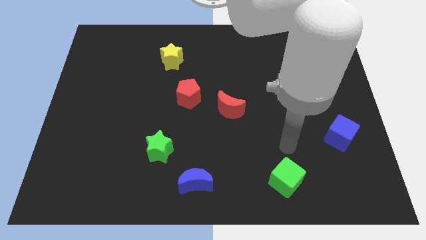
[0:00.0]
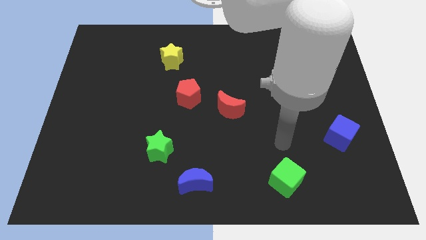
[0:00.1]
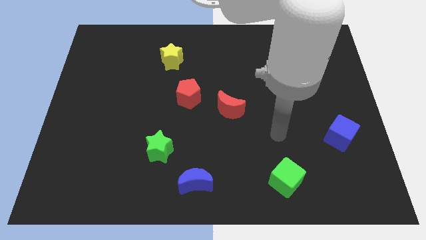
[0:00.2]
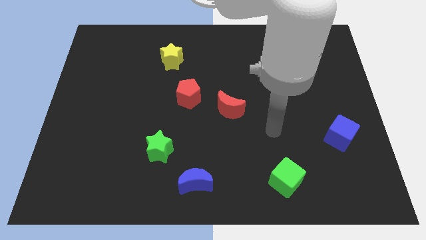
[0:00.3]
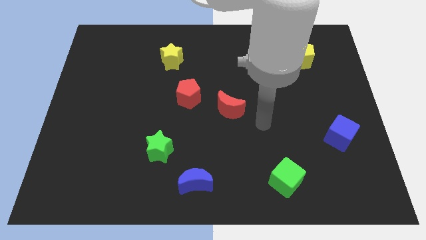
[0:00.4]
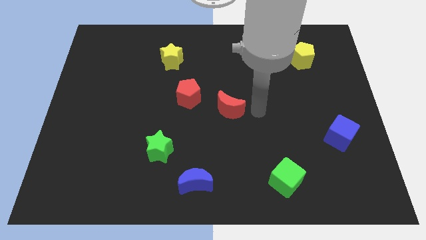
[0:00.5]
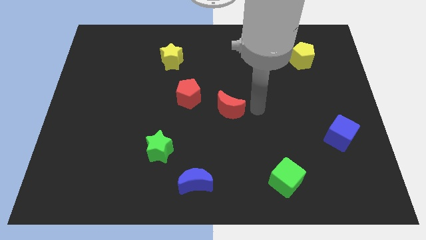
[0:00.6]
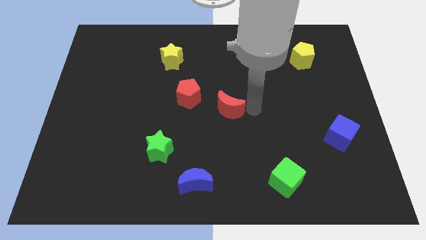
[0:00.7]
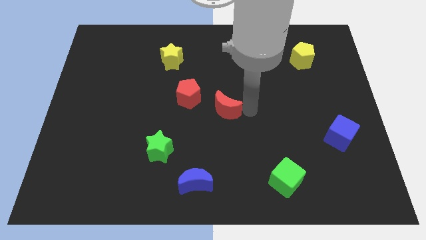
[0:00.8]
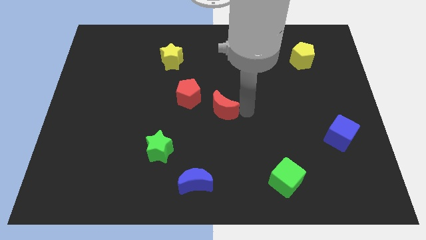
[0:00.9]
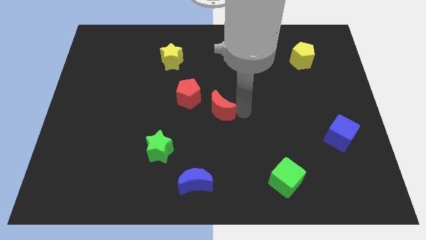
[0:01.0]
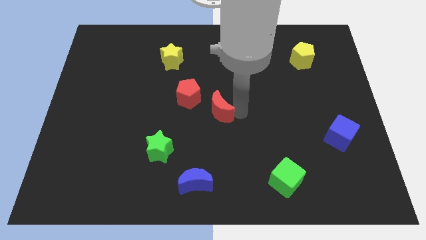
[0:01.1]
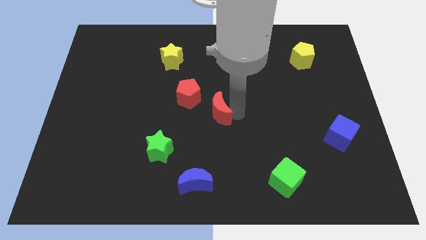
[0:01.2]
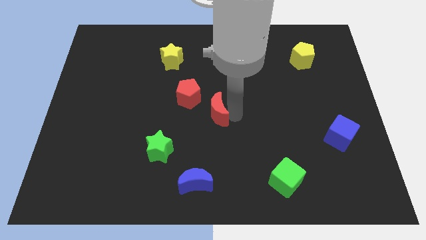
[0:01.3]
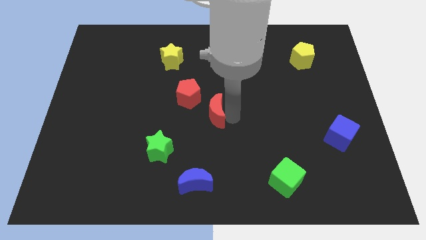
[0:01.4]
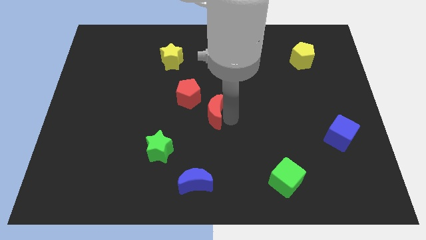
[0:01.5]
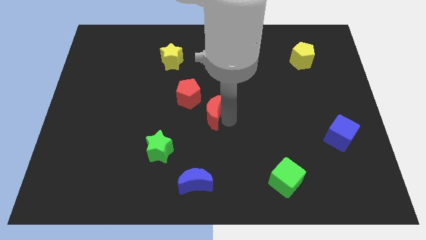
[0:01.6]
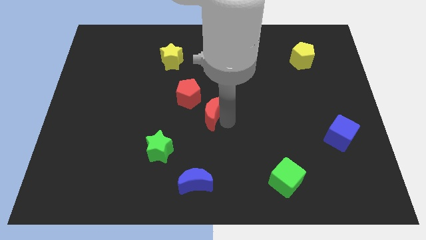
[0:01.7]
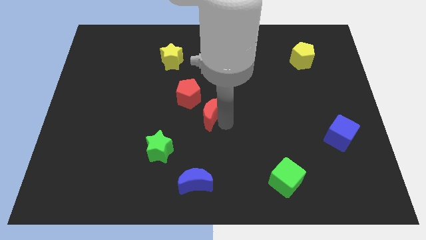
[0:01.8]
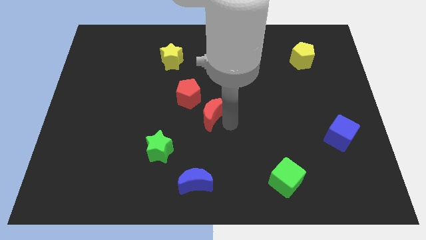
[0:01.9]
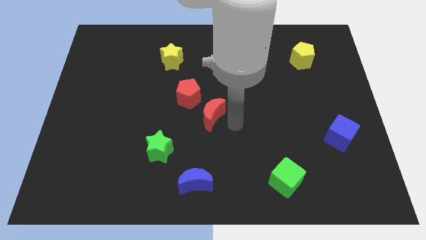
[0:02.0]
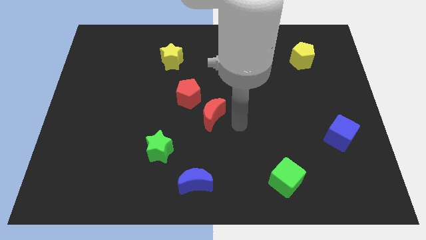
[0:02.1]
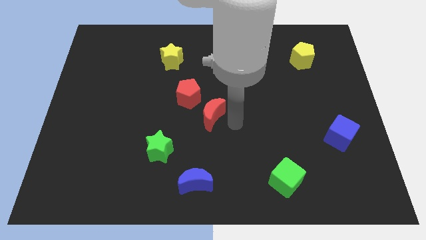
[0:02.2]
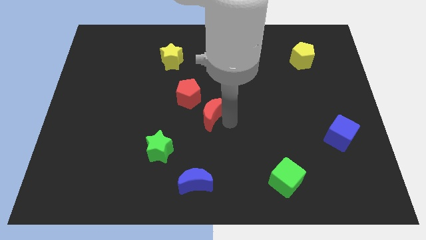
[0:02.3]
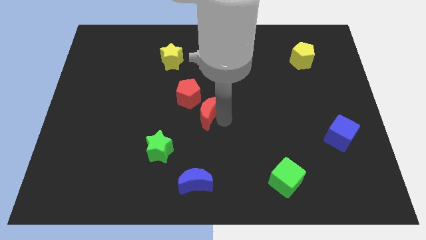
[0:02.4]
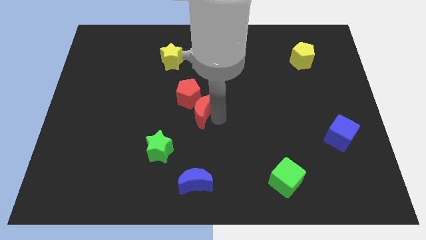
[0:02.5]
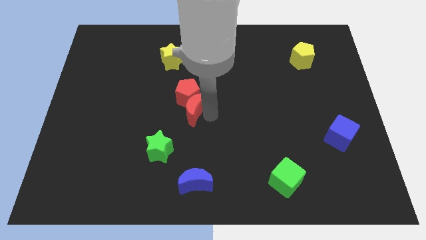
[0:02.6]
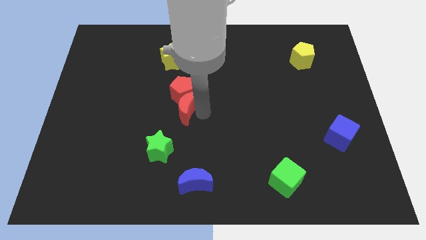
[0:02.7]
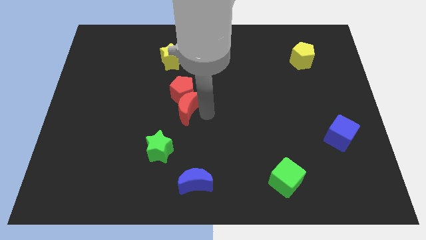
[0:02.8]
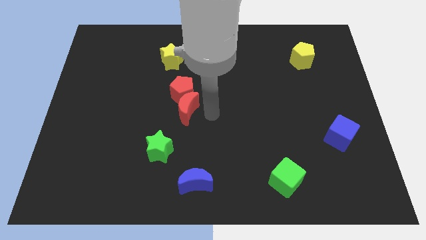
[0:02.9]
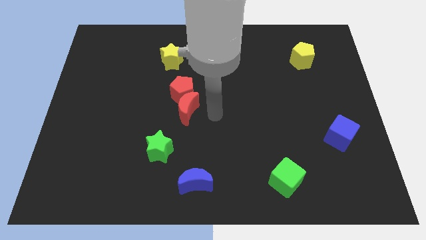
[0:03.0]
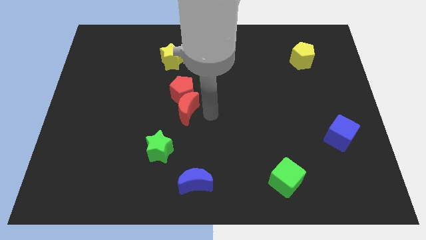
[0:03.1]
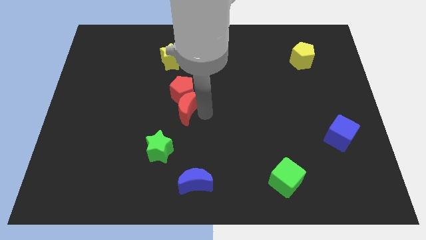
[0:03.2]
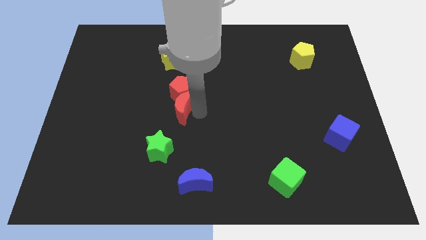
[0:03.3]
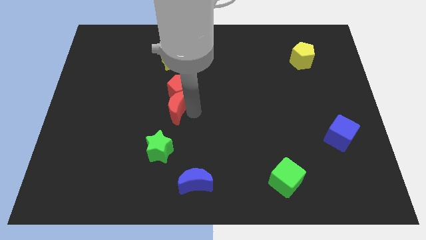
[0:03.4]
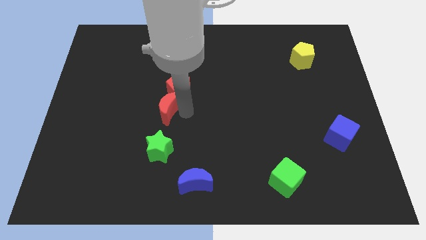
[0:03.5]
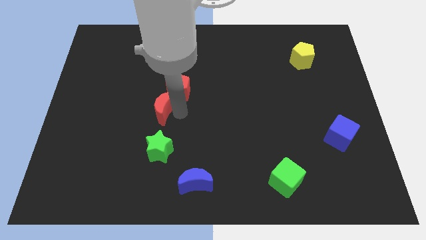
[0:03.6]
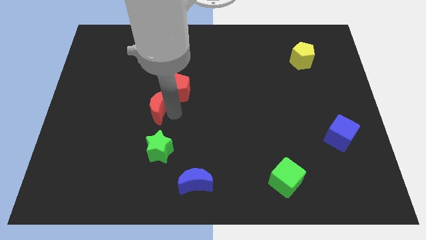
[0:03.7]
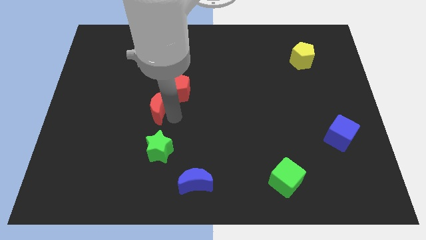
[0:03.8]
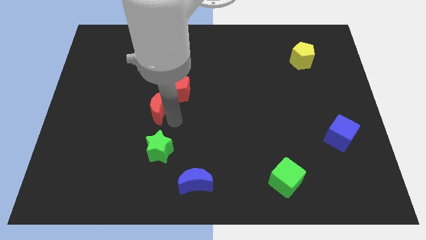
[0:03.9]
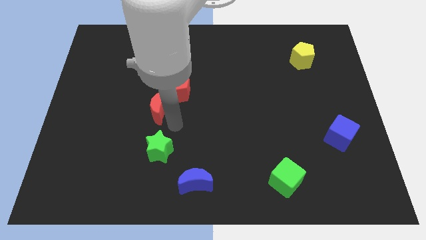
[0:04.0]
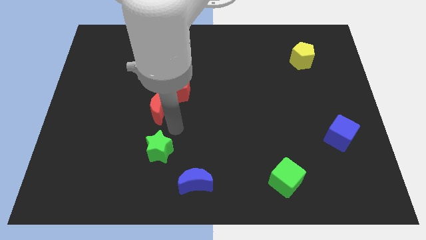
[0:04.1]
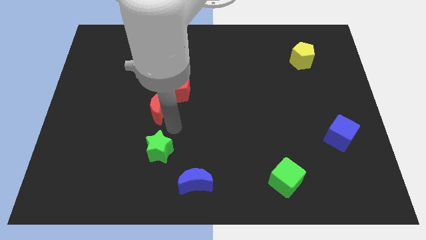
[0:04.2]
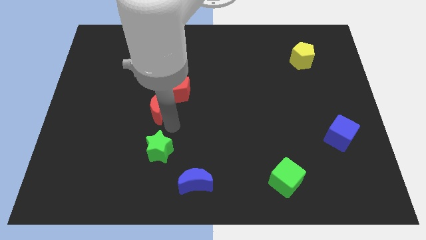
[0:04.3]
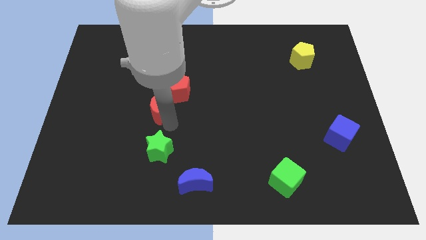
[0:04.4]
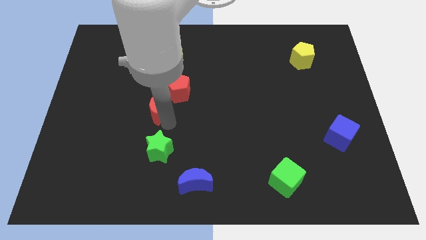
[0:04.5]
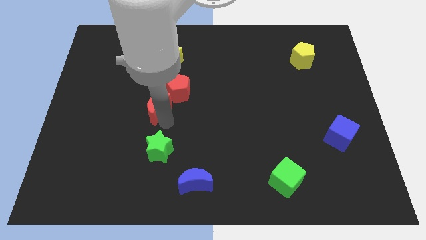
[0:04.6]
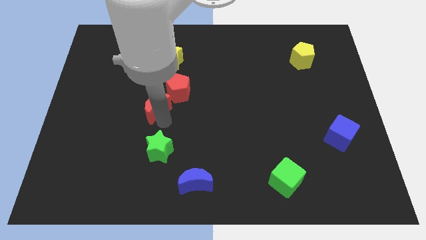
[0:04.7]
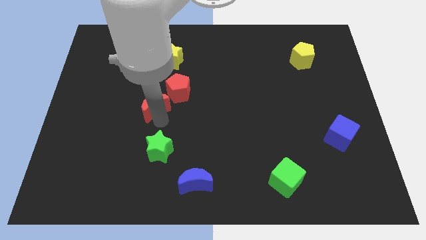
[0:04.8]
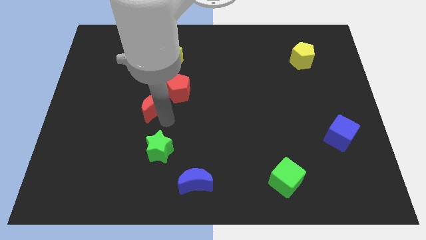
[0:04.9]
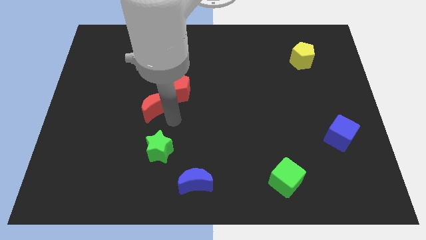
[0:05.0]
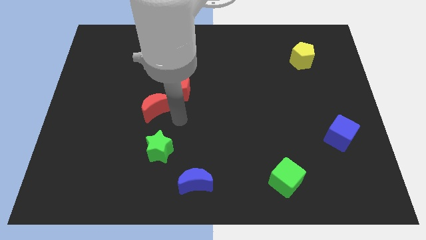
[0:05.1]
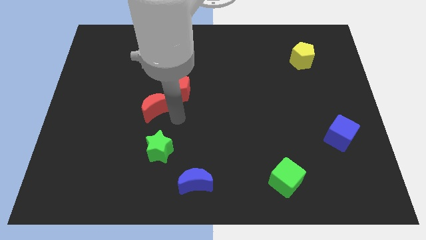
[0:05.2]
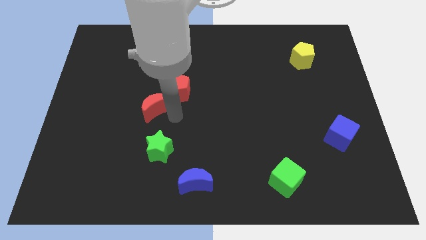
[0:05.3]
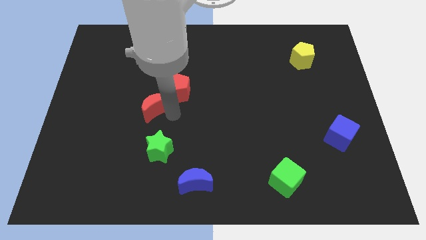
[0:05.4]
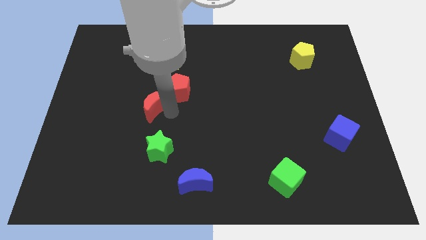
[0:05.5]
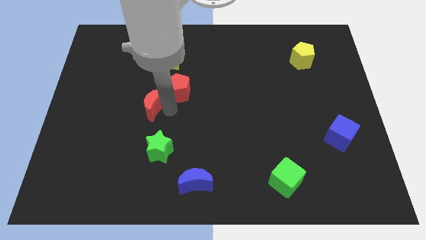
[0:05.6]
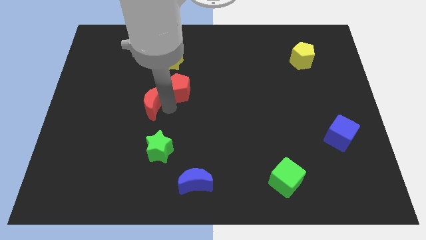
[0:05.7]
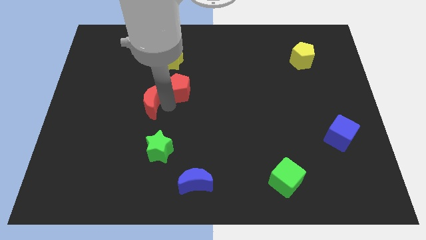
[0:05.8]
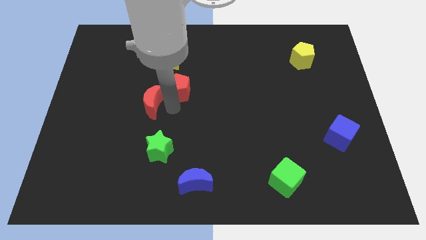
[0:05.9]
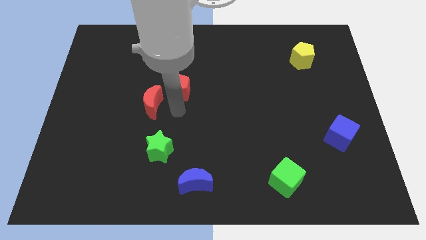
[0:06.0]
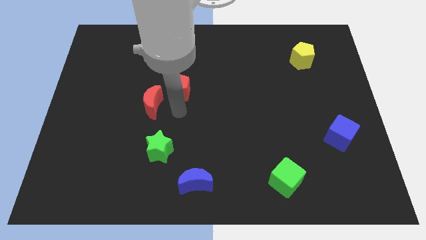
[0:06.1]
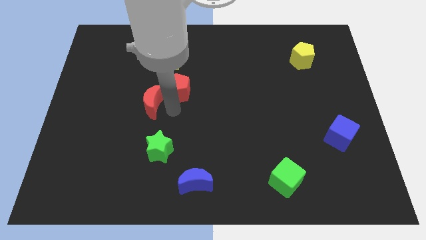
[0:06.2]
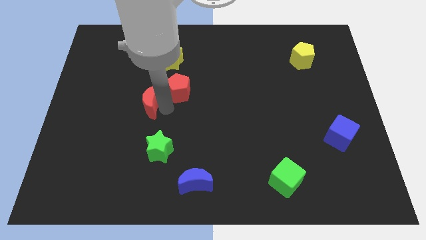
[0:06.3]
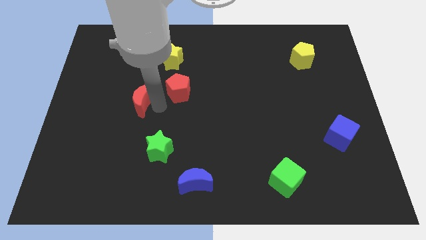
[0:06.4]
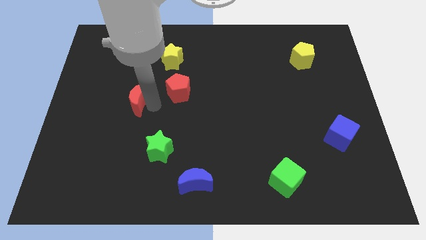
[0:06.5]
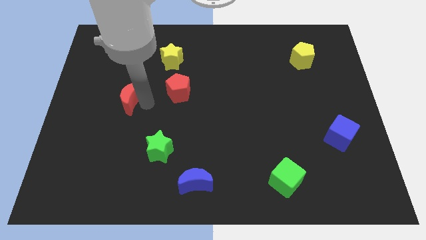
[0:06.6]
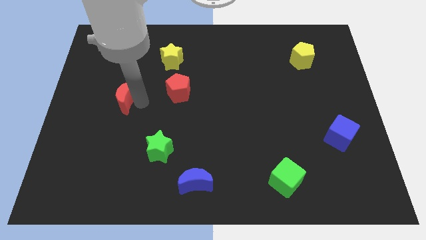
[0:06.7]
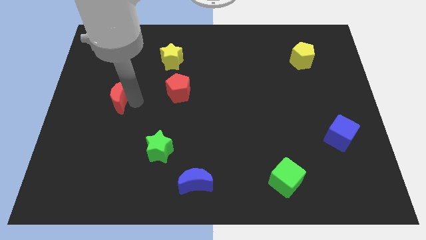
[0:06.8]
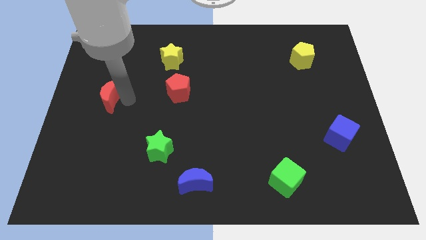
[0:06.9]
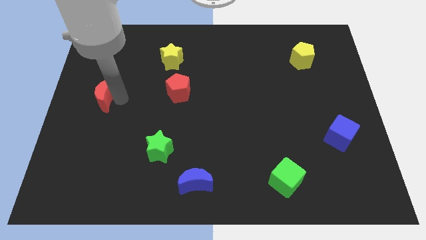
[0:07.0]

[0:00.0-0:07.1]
push the red moon to the left side
